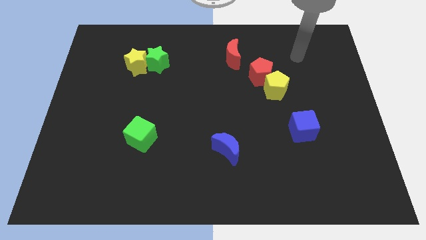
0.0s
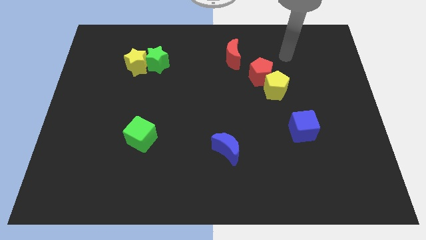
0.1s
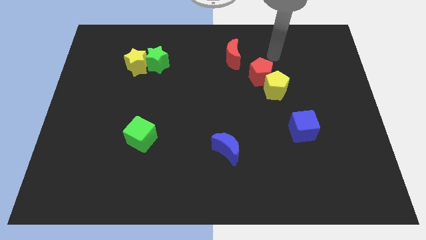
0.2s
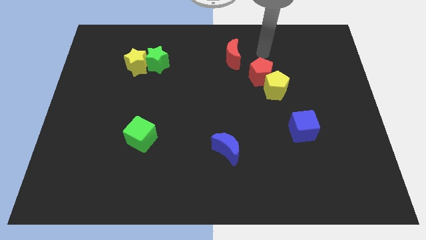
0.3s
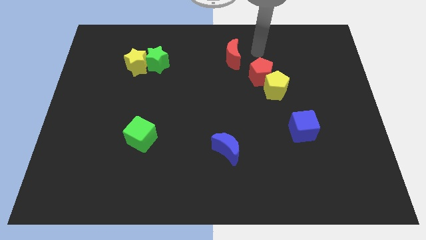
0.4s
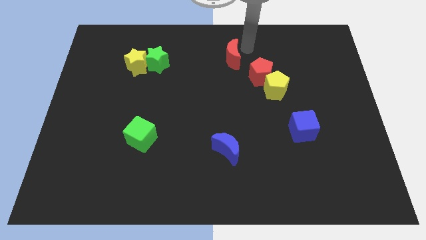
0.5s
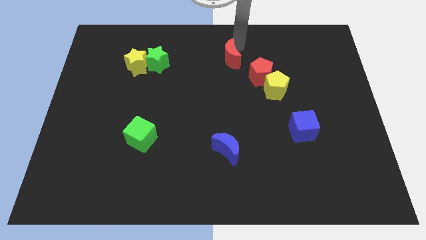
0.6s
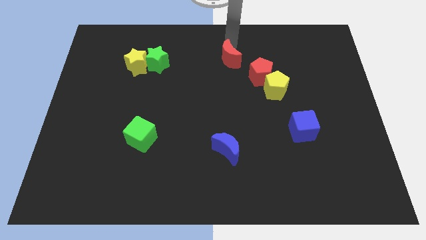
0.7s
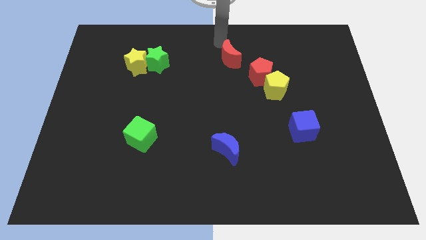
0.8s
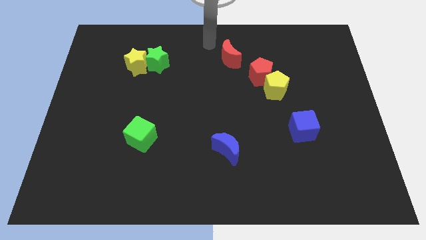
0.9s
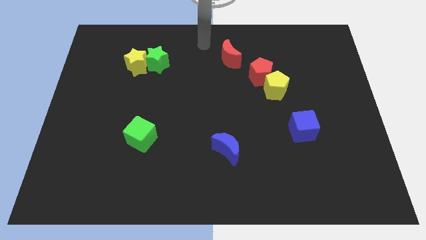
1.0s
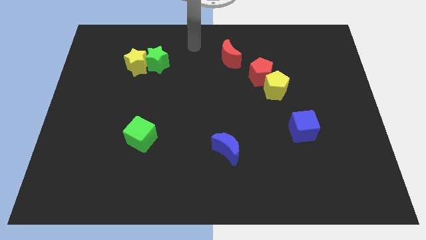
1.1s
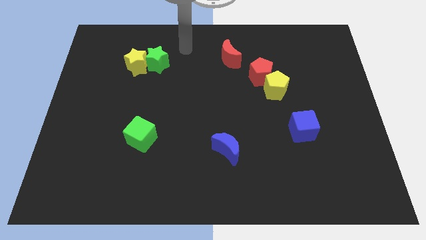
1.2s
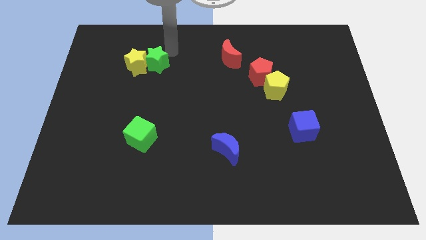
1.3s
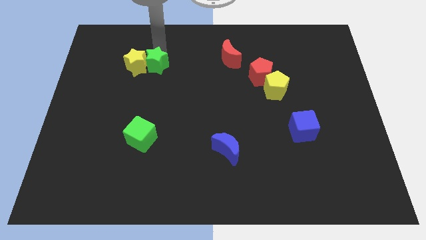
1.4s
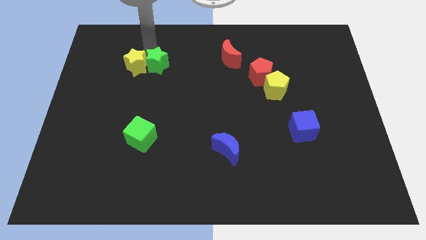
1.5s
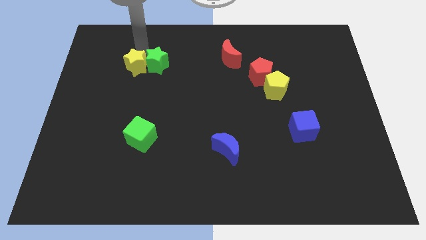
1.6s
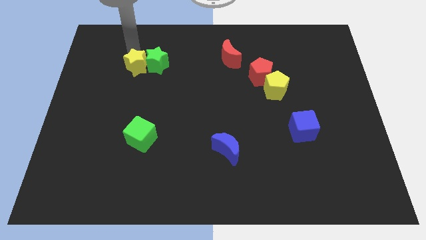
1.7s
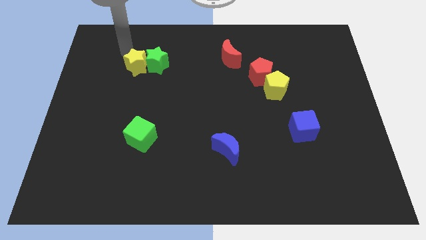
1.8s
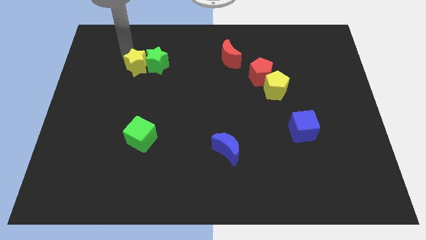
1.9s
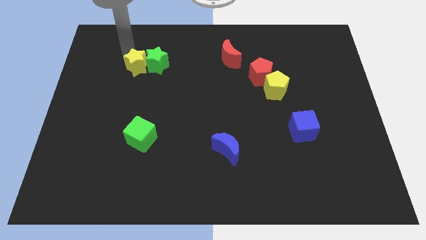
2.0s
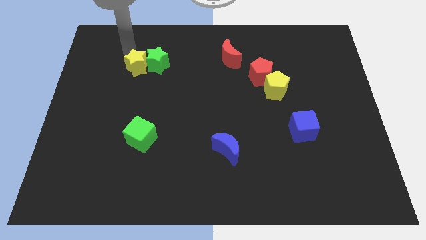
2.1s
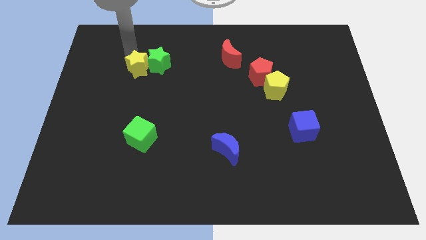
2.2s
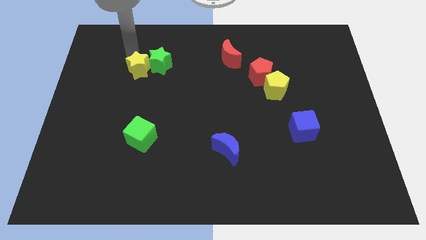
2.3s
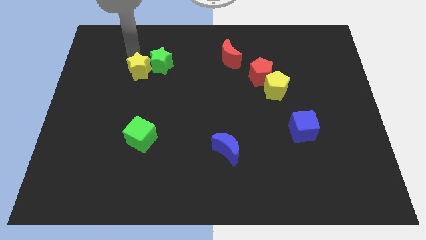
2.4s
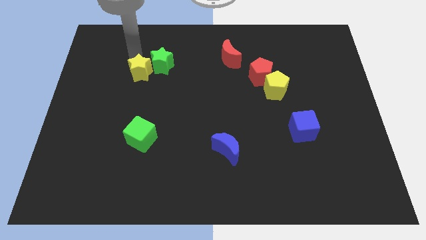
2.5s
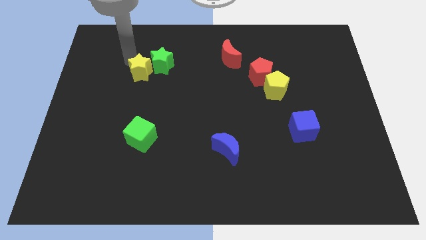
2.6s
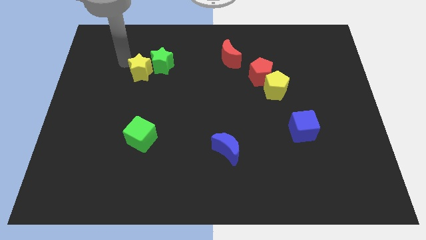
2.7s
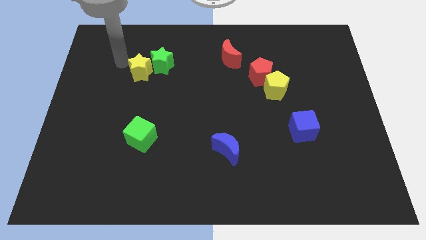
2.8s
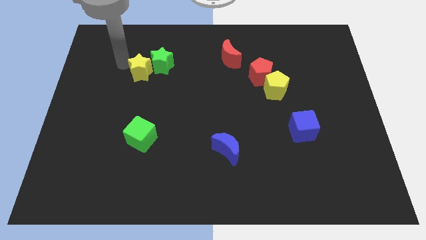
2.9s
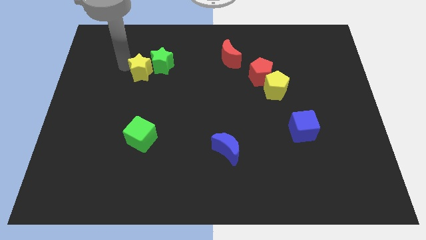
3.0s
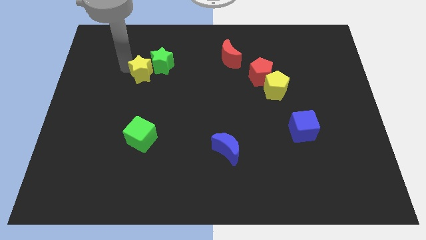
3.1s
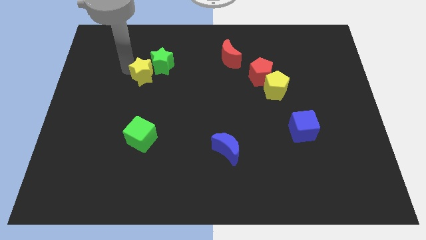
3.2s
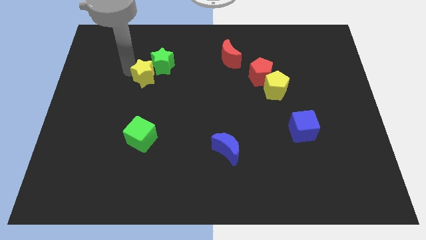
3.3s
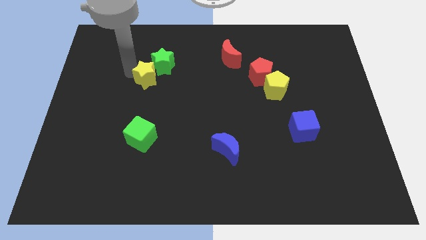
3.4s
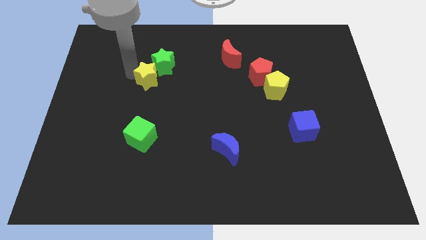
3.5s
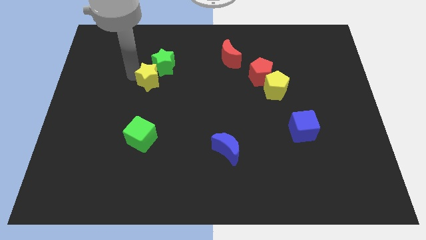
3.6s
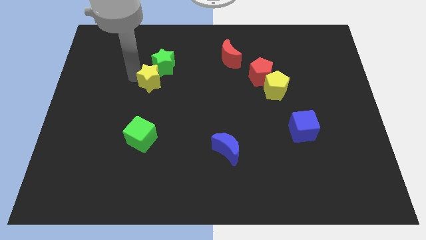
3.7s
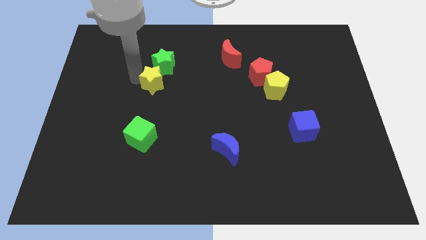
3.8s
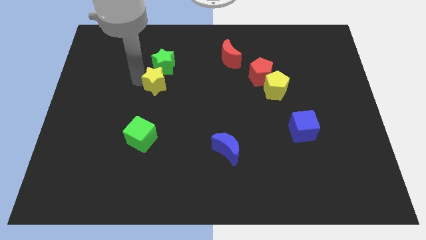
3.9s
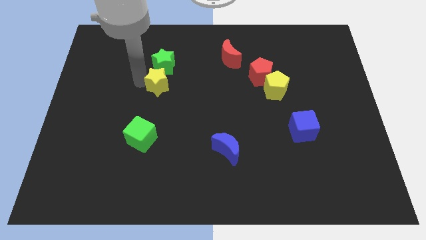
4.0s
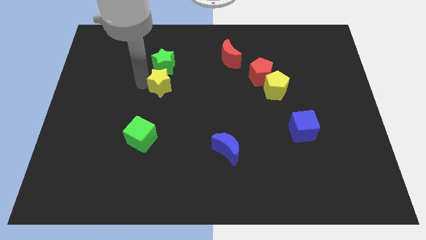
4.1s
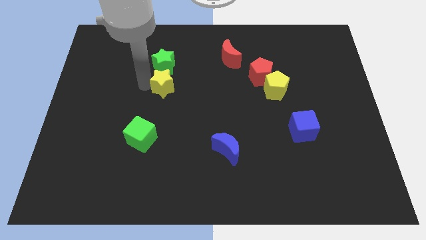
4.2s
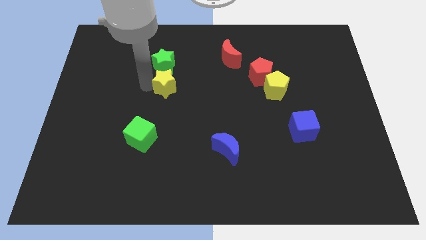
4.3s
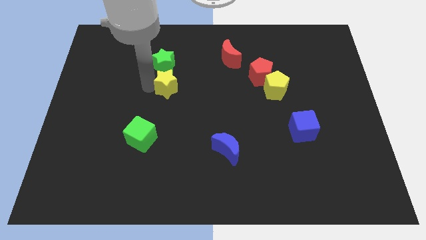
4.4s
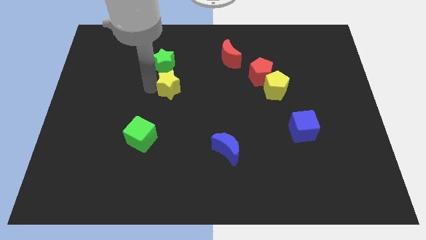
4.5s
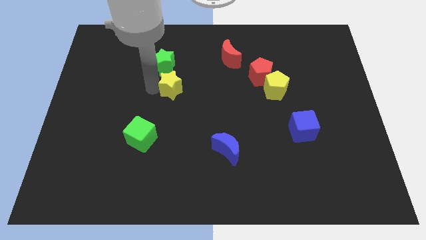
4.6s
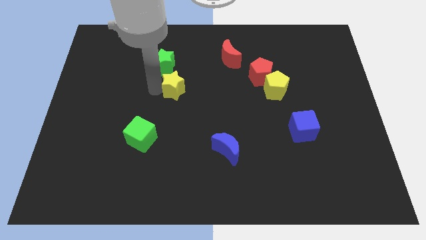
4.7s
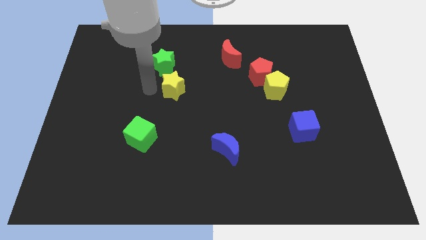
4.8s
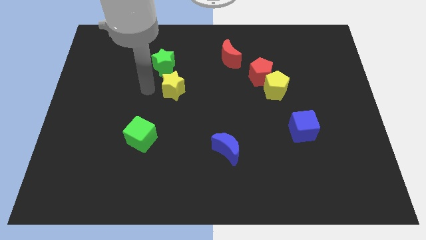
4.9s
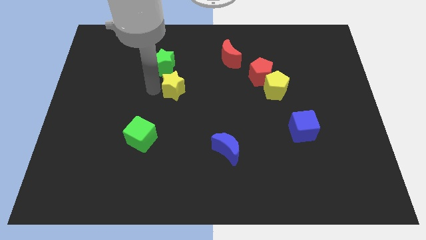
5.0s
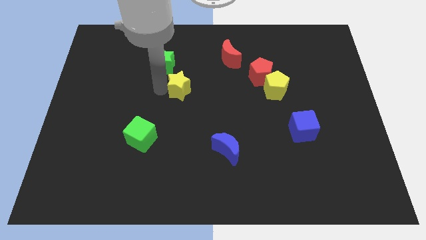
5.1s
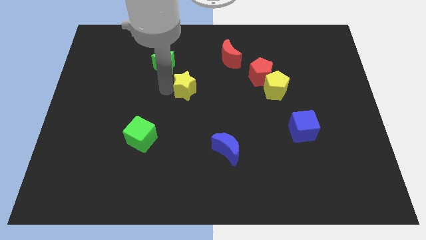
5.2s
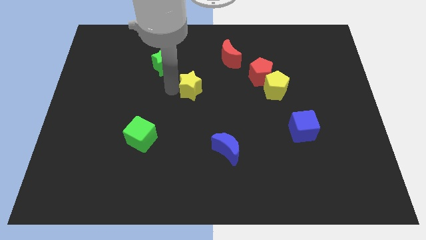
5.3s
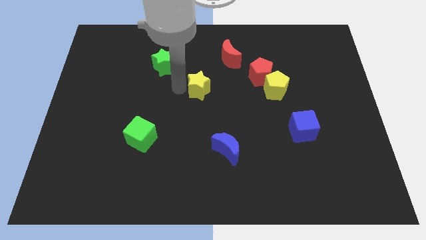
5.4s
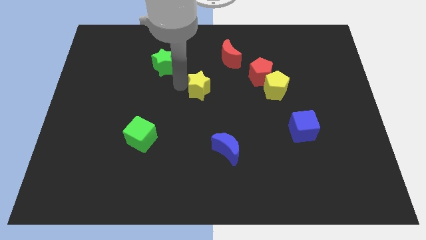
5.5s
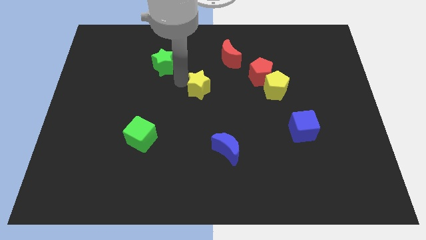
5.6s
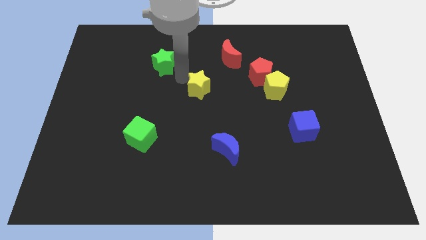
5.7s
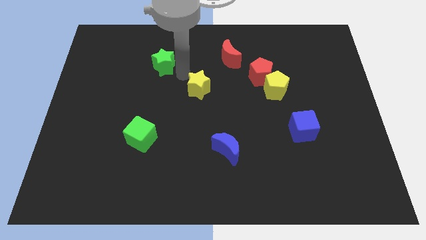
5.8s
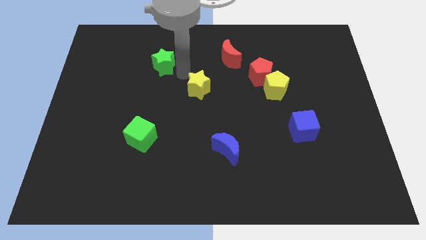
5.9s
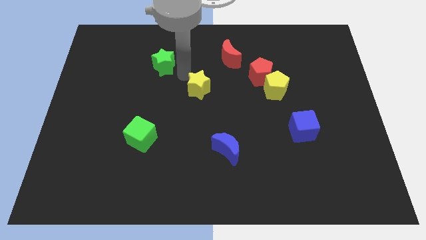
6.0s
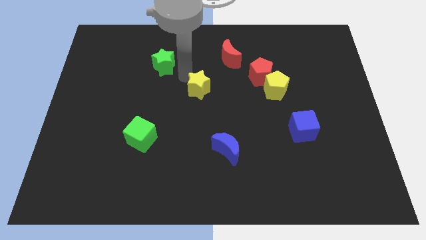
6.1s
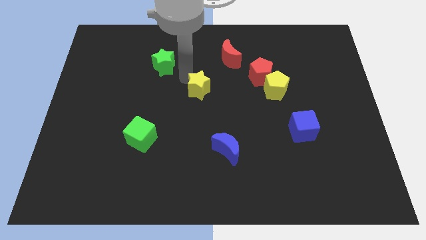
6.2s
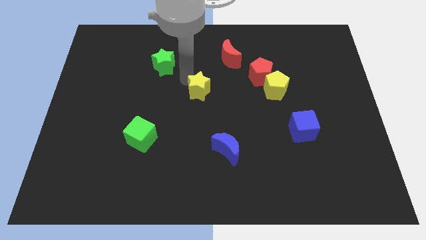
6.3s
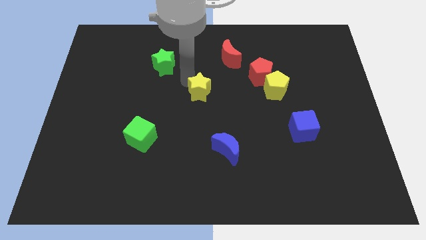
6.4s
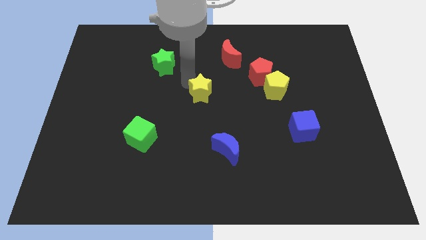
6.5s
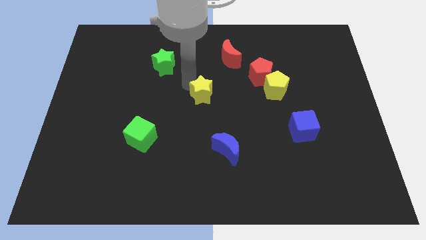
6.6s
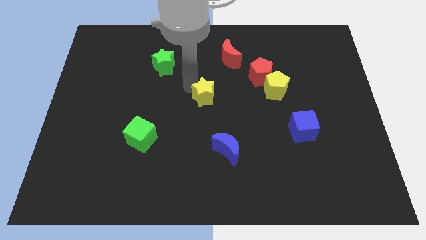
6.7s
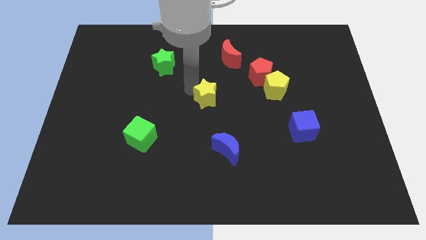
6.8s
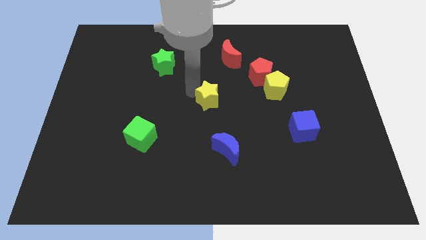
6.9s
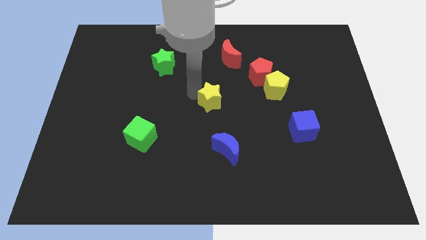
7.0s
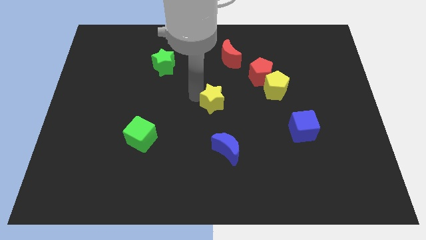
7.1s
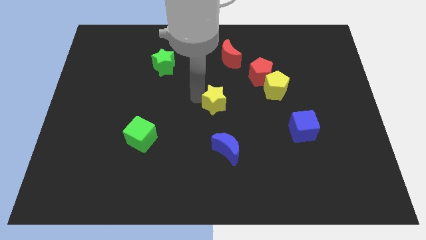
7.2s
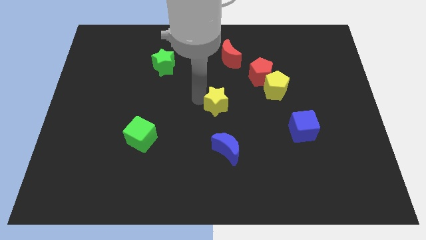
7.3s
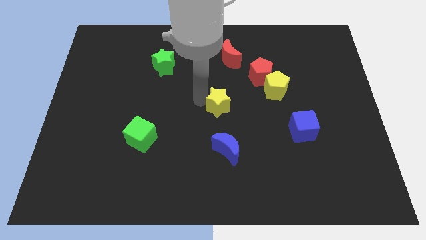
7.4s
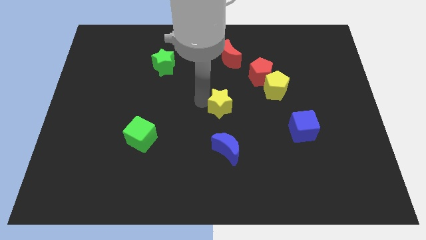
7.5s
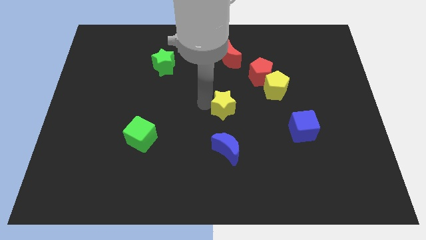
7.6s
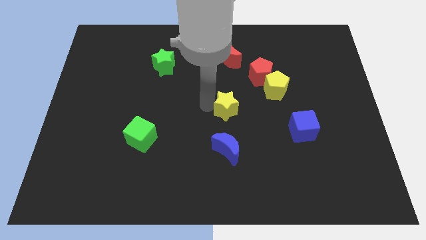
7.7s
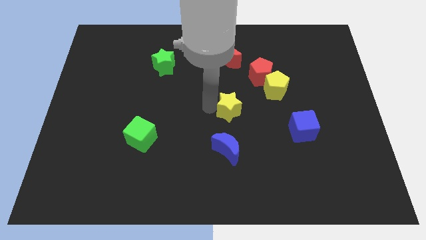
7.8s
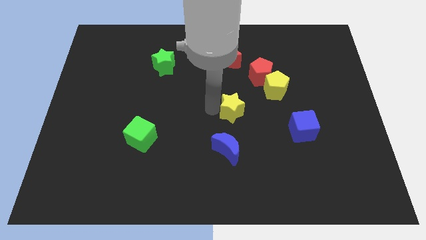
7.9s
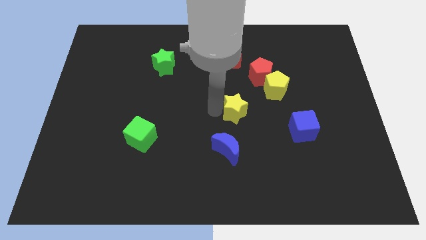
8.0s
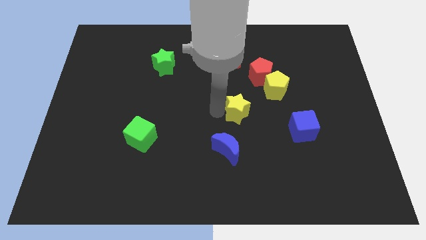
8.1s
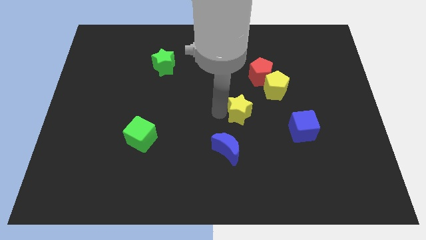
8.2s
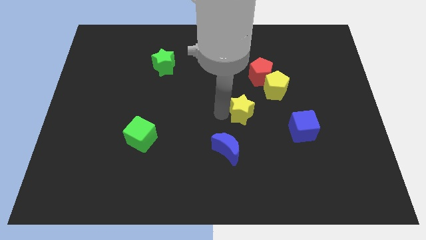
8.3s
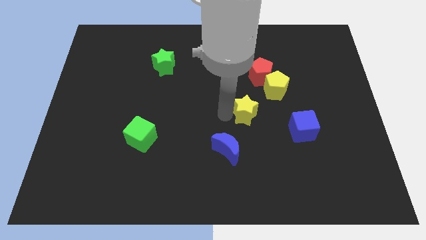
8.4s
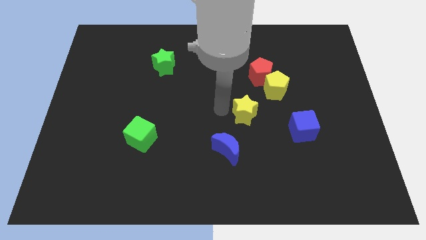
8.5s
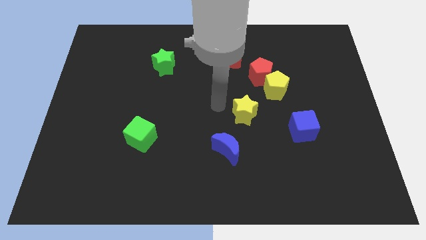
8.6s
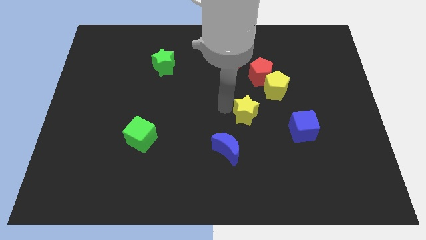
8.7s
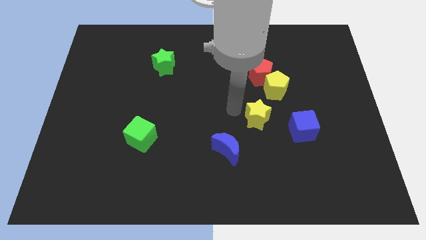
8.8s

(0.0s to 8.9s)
slide the yellow star to the bottom of the yellow pentagon
